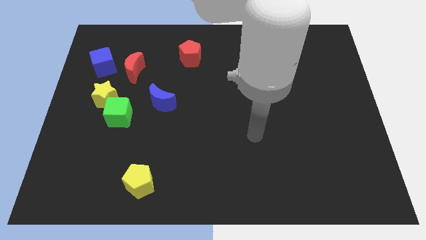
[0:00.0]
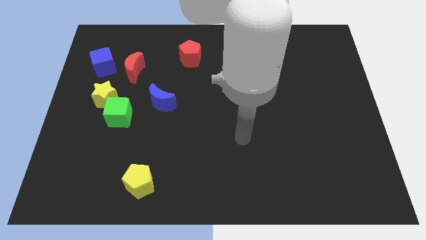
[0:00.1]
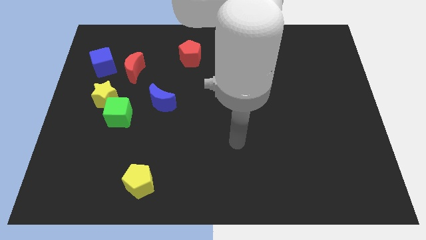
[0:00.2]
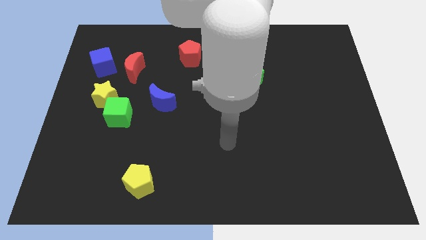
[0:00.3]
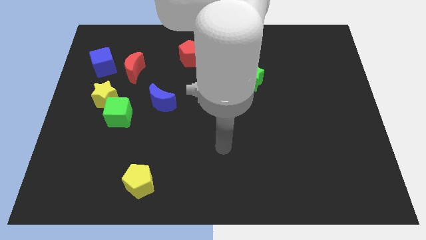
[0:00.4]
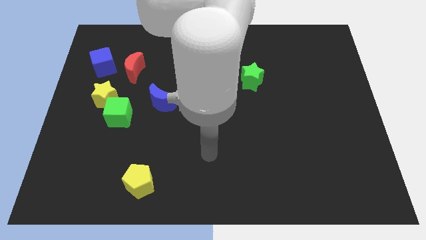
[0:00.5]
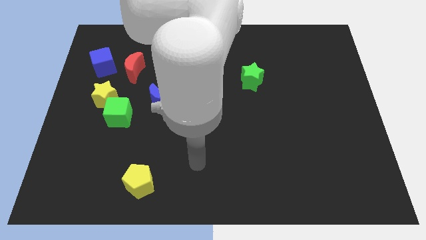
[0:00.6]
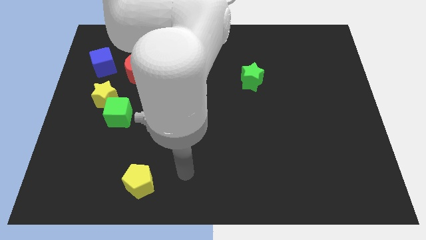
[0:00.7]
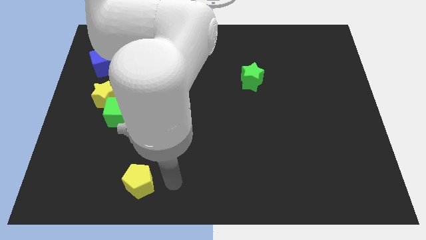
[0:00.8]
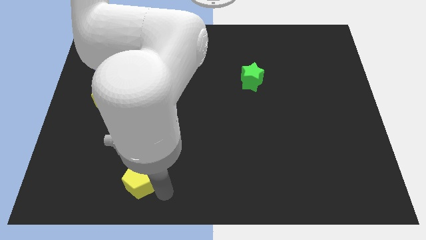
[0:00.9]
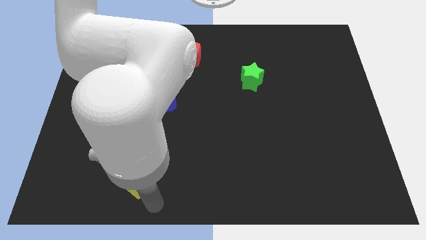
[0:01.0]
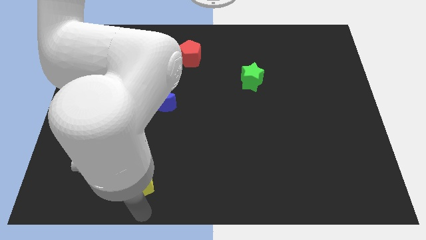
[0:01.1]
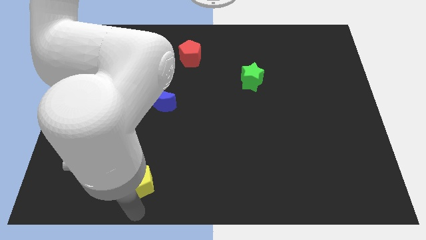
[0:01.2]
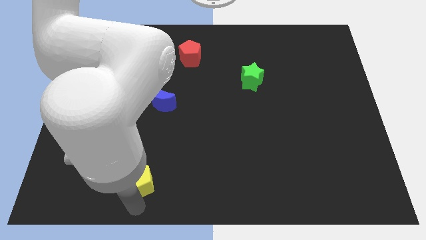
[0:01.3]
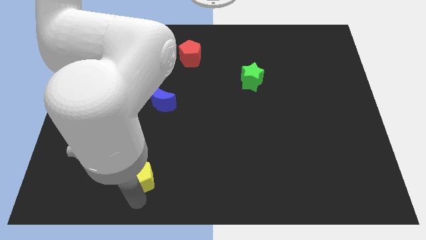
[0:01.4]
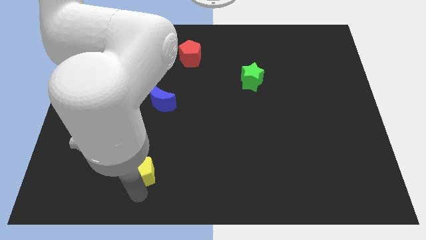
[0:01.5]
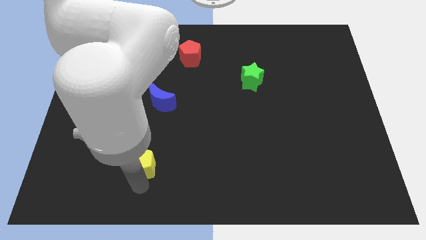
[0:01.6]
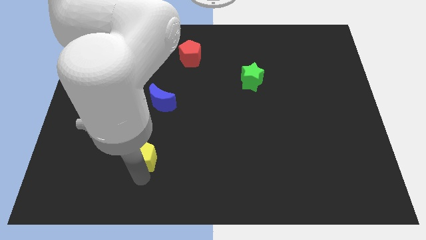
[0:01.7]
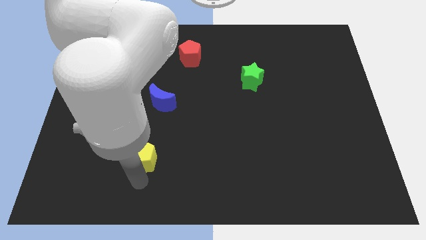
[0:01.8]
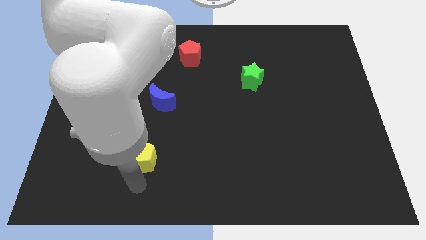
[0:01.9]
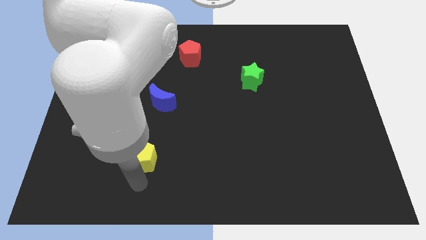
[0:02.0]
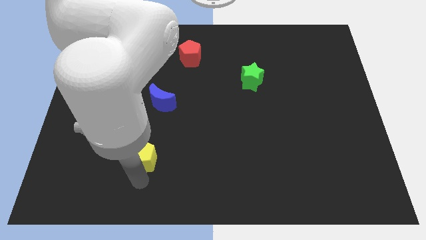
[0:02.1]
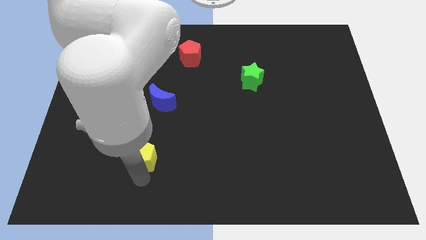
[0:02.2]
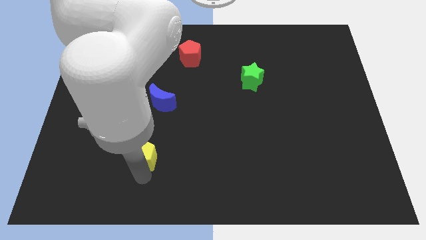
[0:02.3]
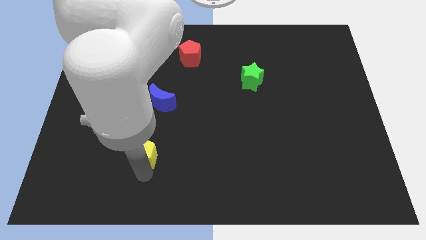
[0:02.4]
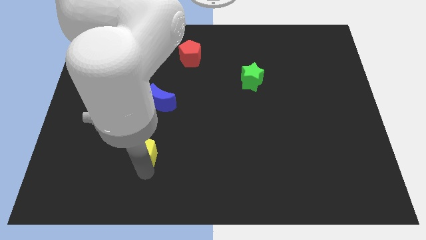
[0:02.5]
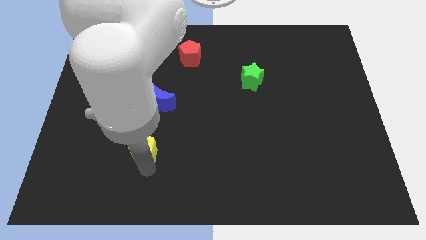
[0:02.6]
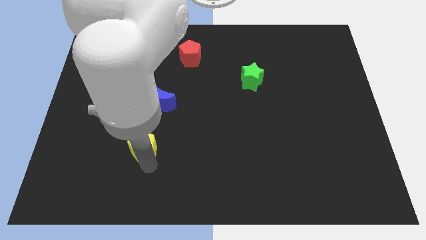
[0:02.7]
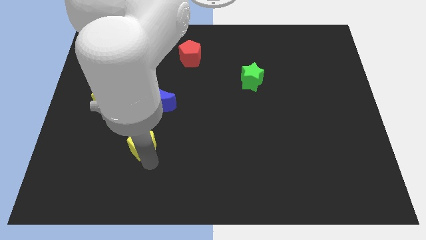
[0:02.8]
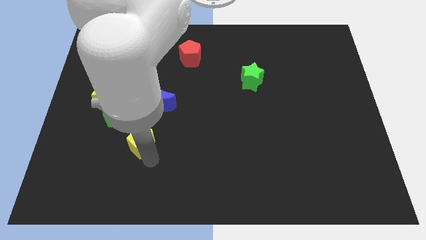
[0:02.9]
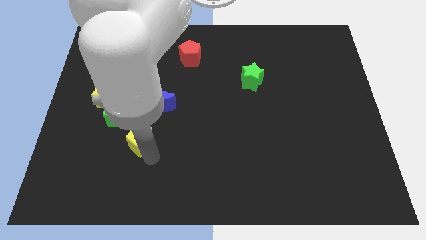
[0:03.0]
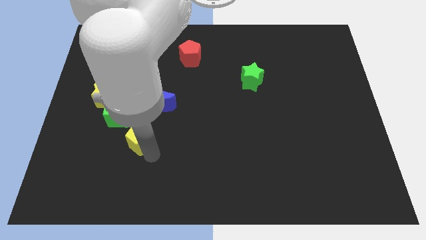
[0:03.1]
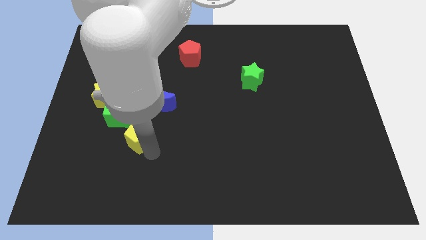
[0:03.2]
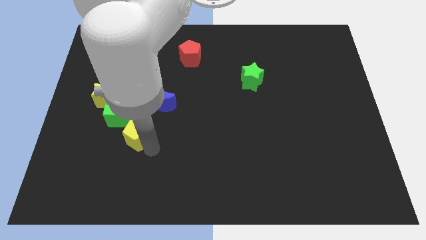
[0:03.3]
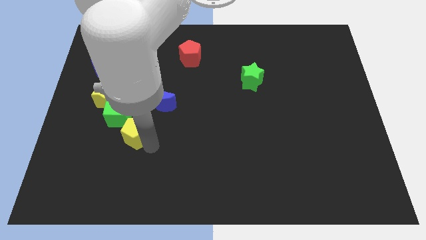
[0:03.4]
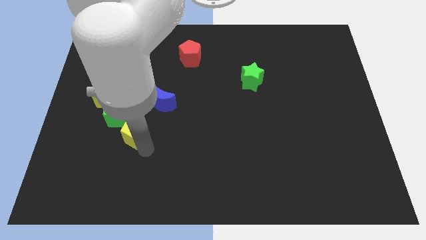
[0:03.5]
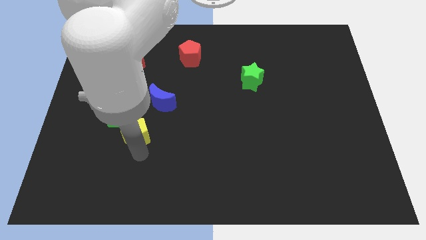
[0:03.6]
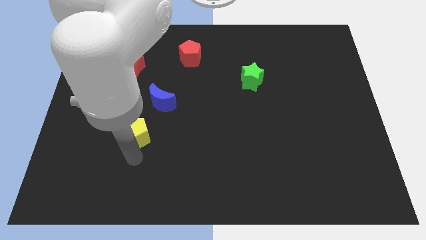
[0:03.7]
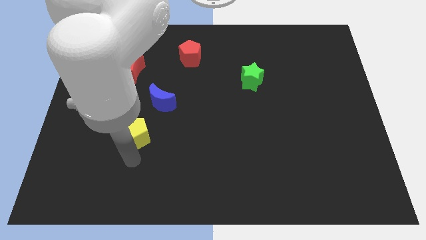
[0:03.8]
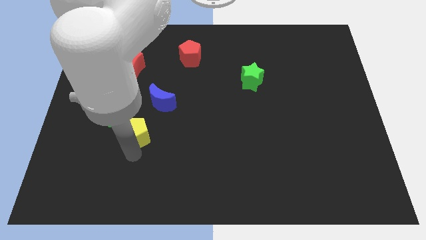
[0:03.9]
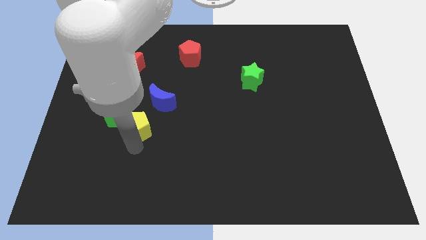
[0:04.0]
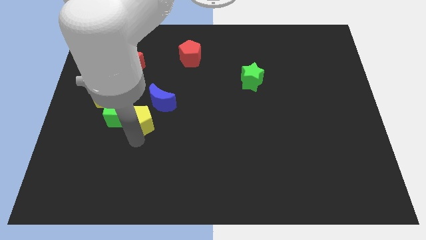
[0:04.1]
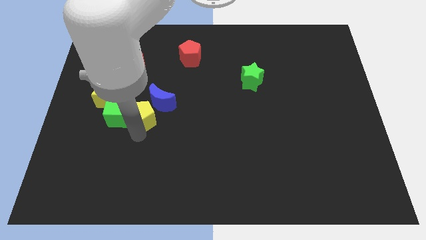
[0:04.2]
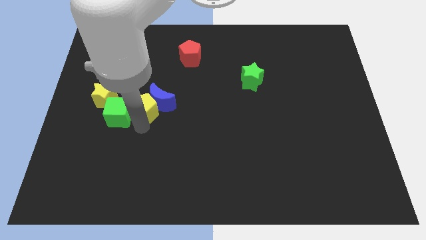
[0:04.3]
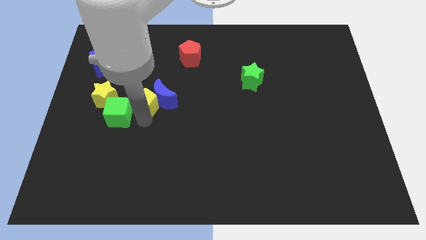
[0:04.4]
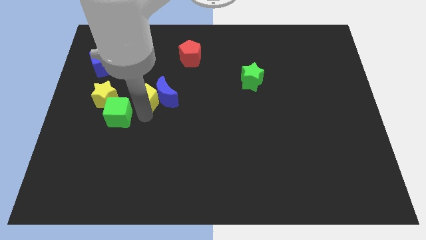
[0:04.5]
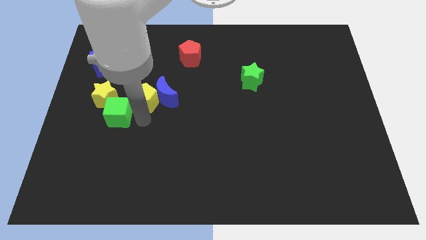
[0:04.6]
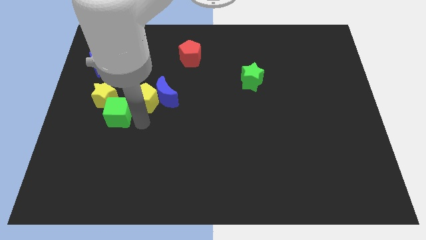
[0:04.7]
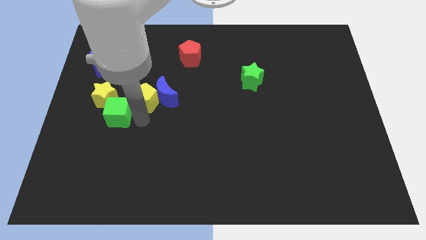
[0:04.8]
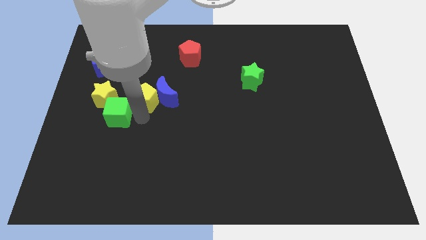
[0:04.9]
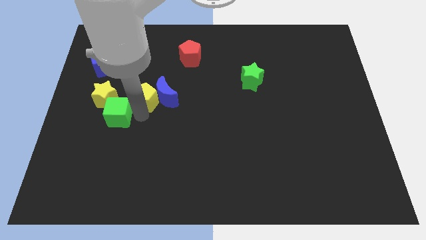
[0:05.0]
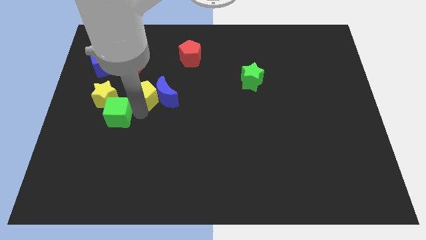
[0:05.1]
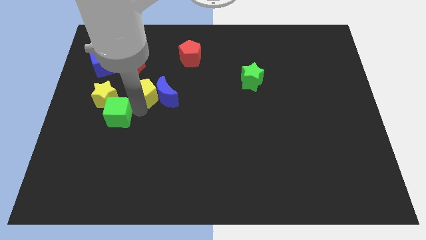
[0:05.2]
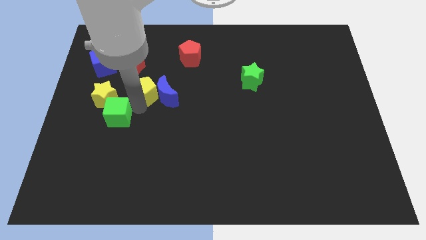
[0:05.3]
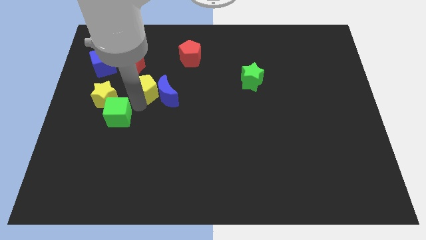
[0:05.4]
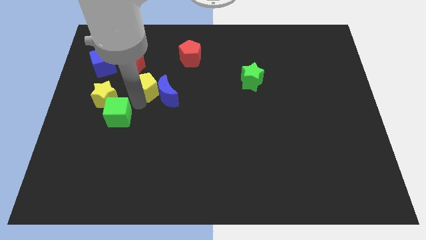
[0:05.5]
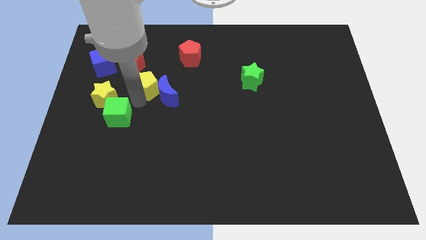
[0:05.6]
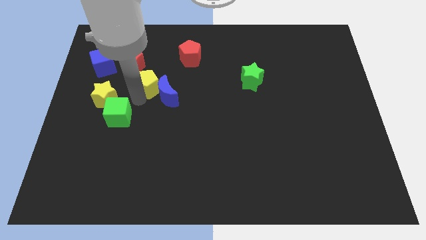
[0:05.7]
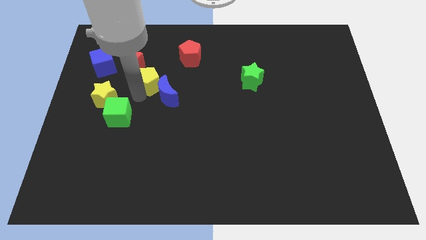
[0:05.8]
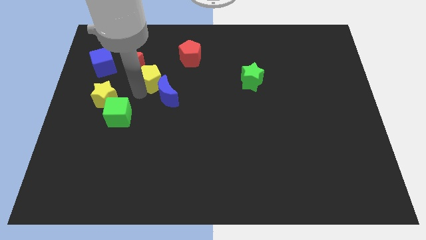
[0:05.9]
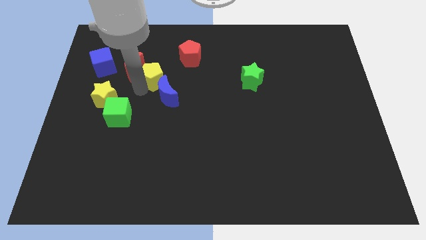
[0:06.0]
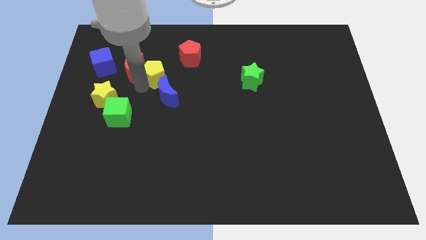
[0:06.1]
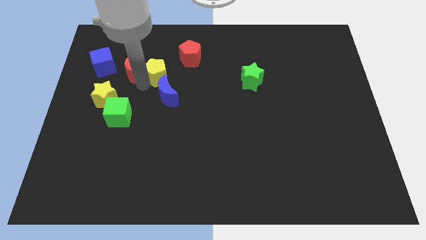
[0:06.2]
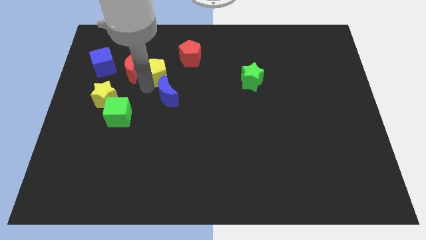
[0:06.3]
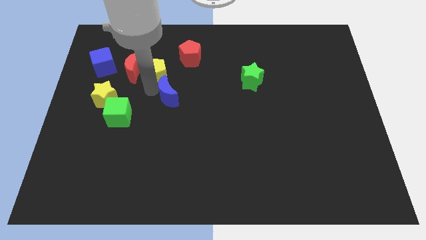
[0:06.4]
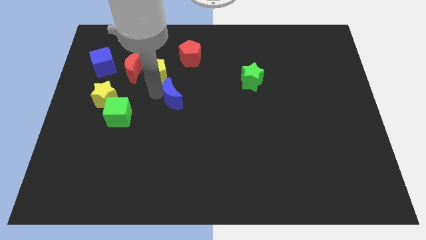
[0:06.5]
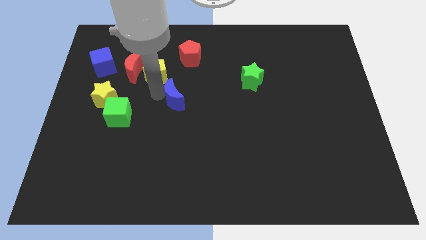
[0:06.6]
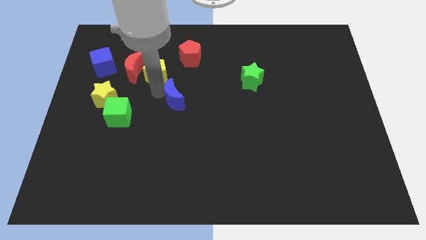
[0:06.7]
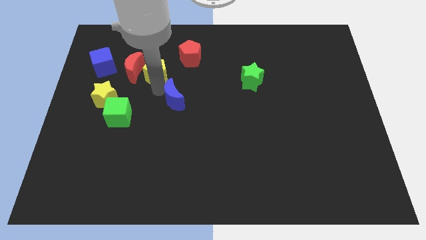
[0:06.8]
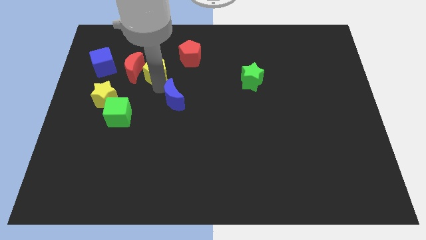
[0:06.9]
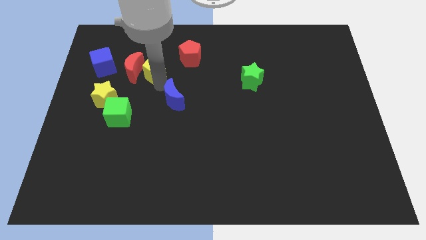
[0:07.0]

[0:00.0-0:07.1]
push the yellow pentagon to the top right of the red moon
